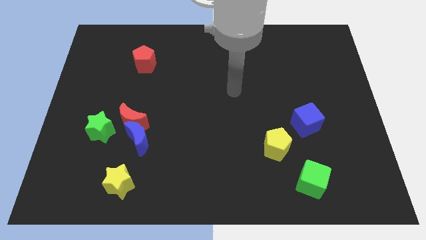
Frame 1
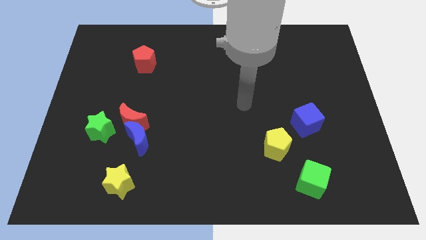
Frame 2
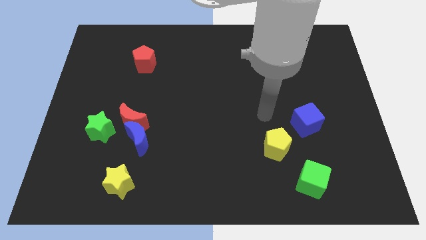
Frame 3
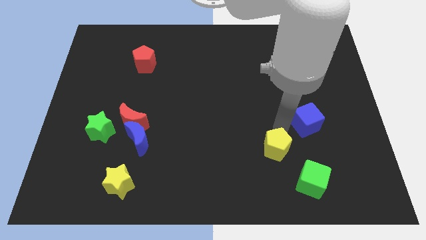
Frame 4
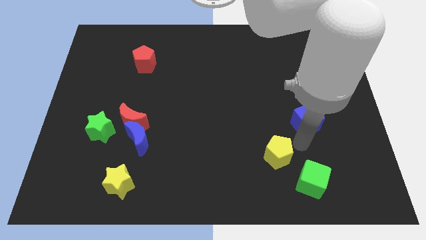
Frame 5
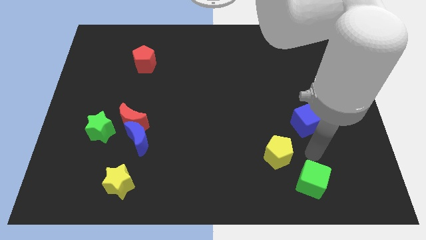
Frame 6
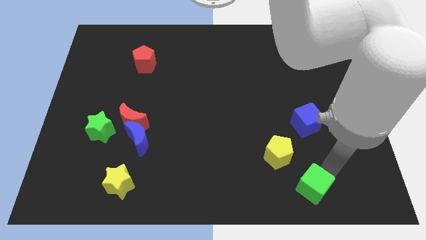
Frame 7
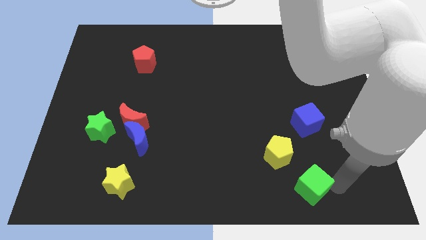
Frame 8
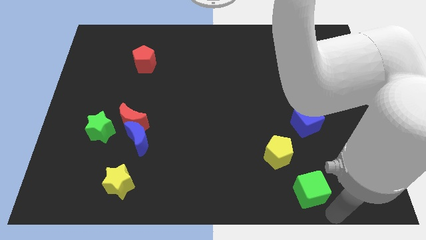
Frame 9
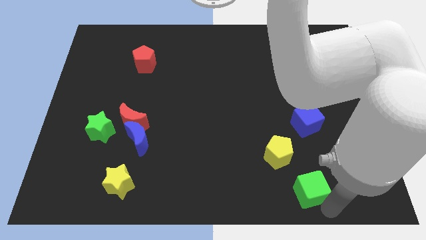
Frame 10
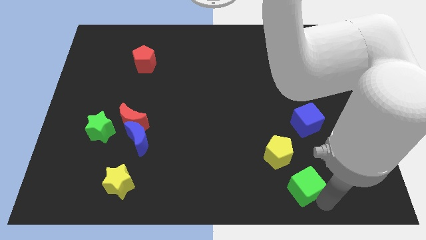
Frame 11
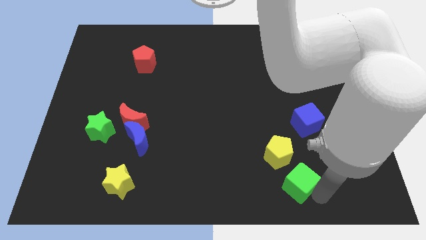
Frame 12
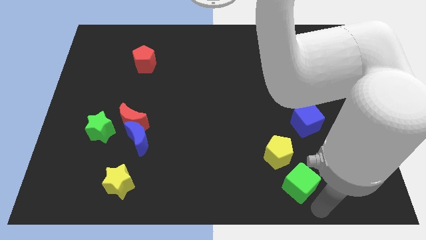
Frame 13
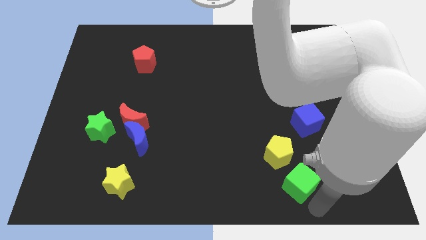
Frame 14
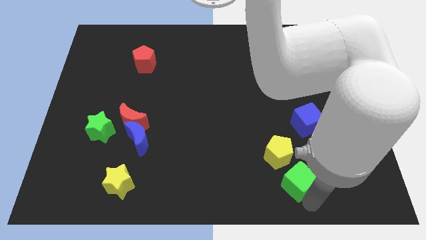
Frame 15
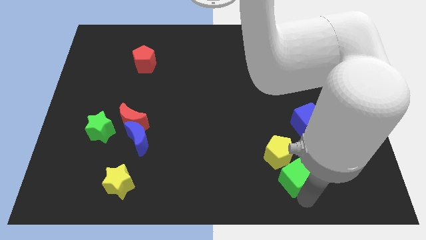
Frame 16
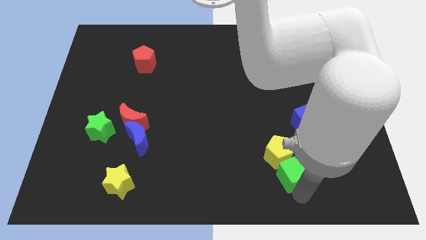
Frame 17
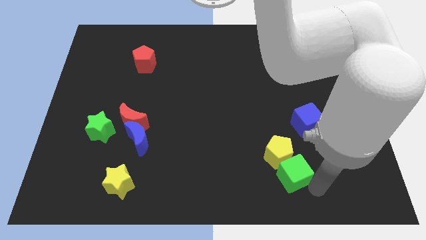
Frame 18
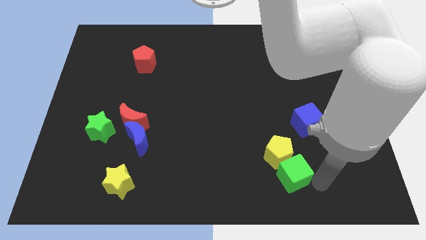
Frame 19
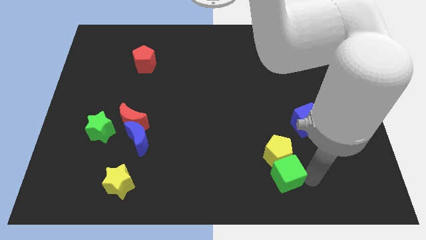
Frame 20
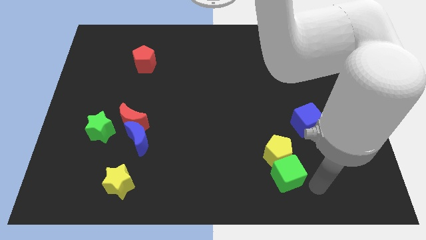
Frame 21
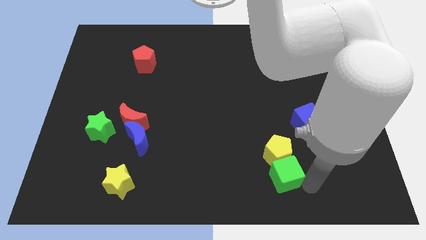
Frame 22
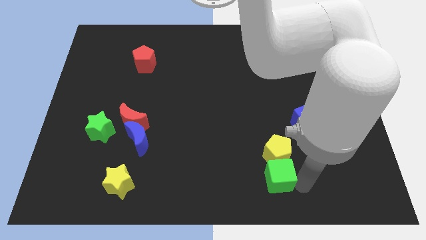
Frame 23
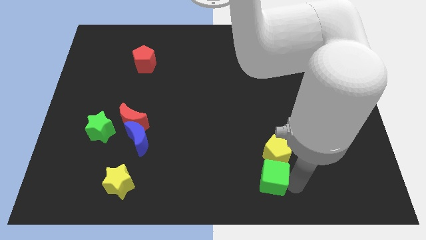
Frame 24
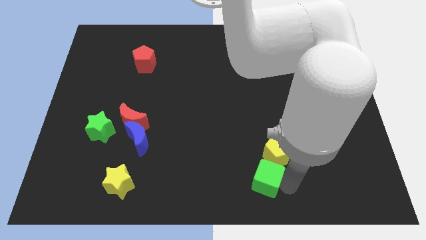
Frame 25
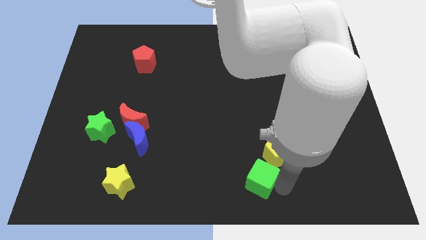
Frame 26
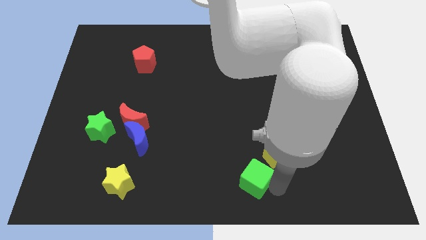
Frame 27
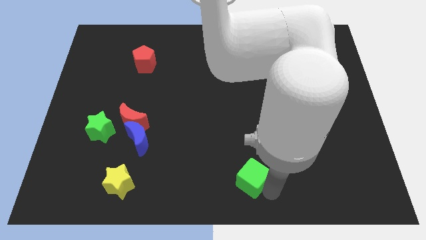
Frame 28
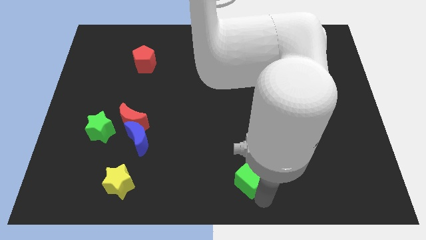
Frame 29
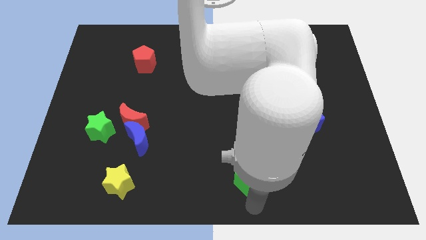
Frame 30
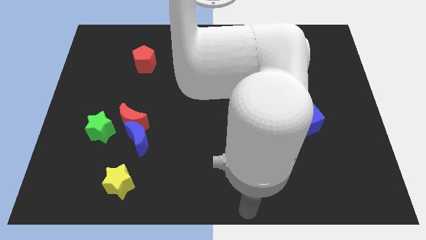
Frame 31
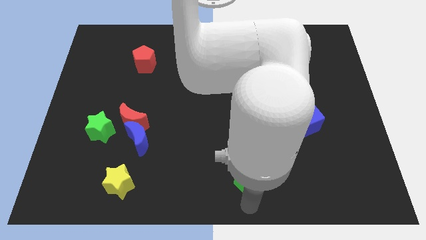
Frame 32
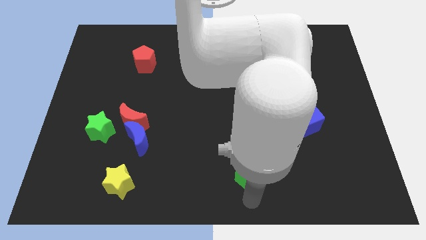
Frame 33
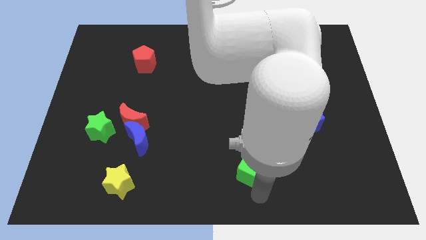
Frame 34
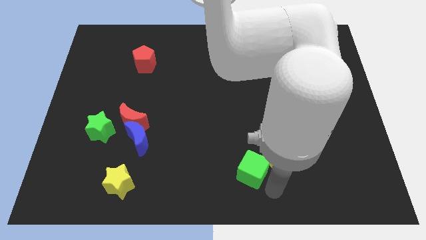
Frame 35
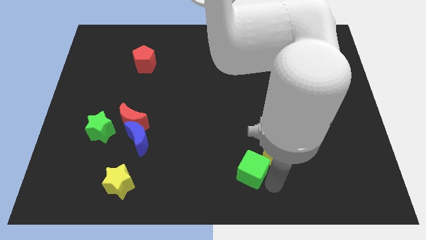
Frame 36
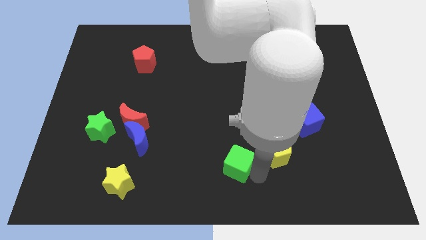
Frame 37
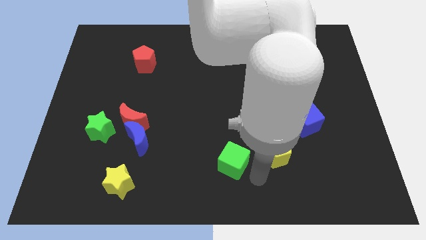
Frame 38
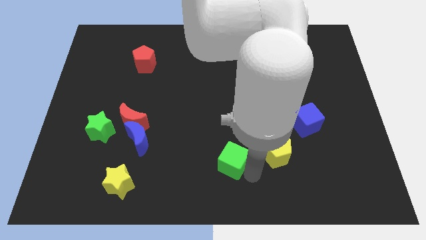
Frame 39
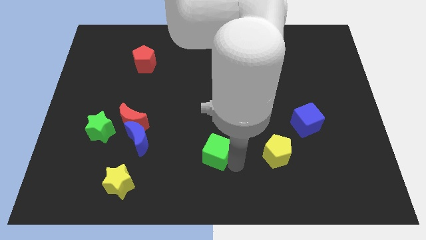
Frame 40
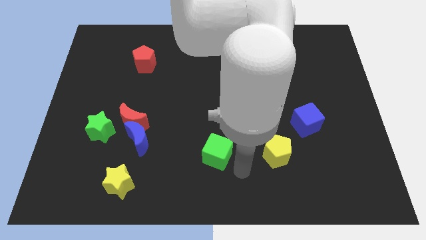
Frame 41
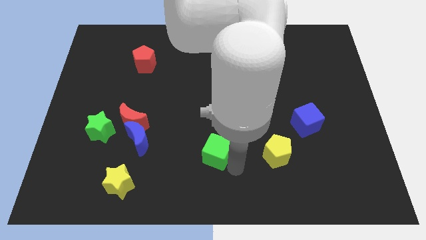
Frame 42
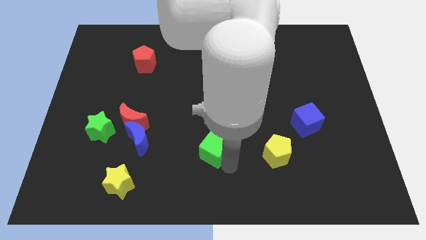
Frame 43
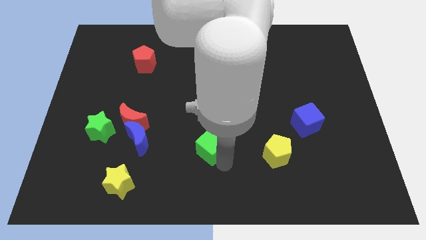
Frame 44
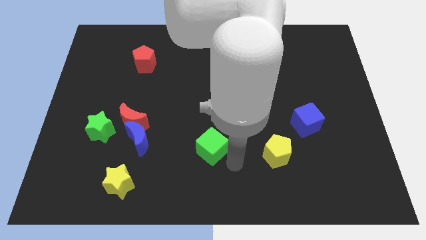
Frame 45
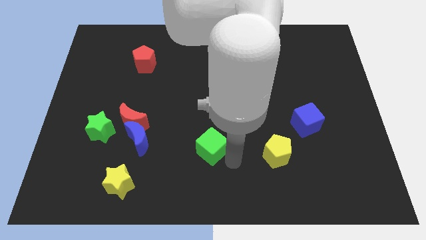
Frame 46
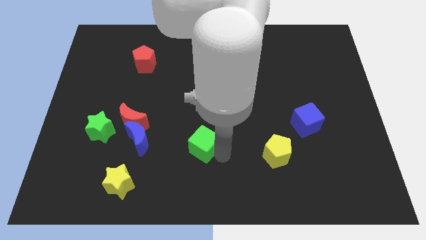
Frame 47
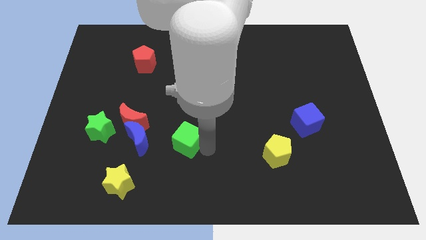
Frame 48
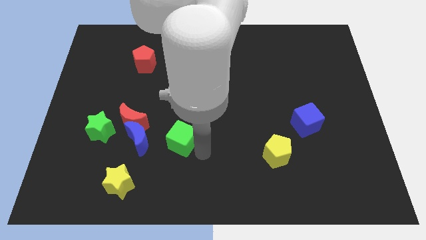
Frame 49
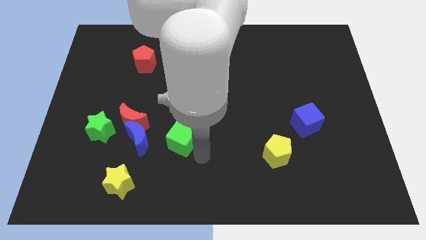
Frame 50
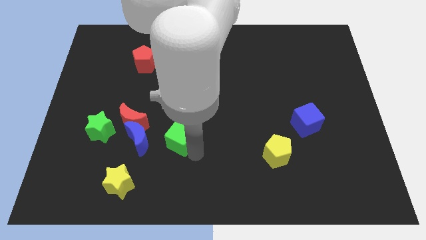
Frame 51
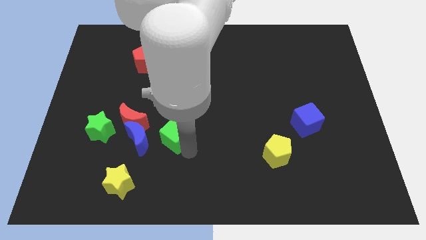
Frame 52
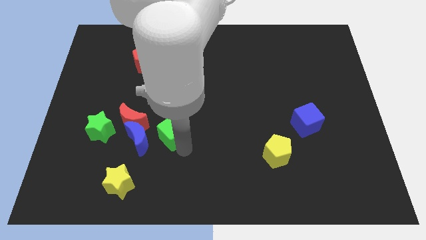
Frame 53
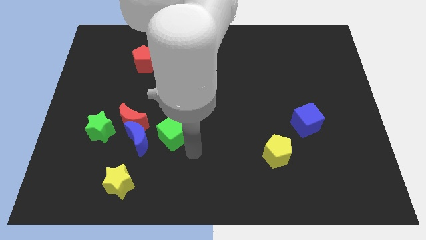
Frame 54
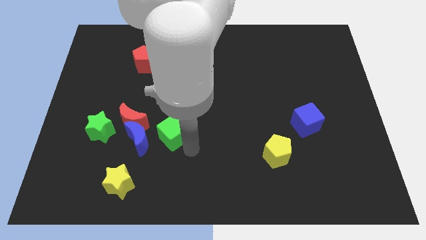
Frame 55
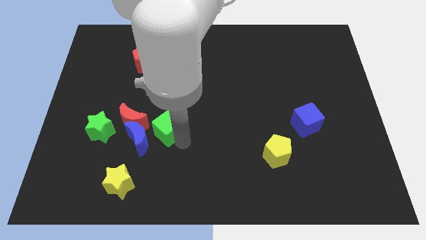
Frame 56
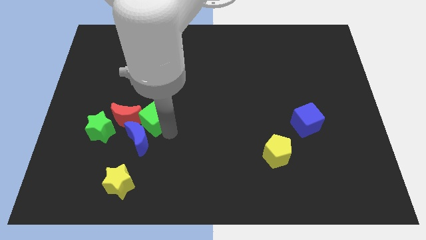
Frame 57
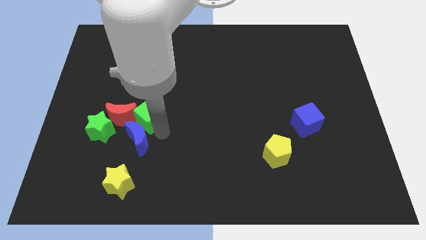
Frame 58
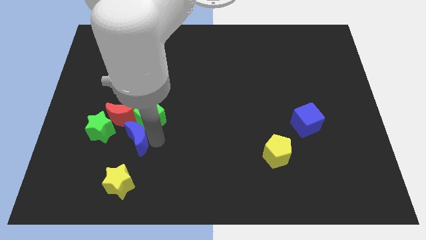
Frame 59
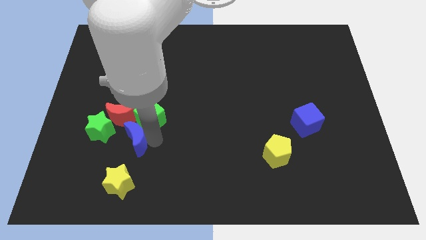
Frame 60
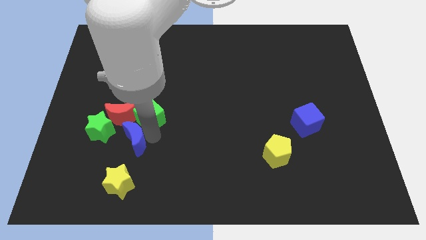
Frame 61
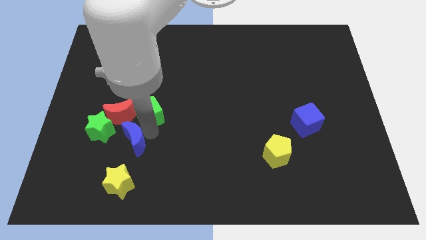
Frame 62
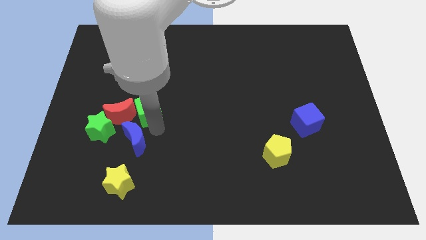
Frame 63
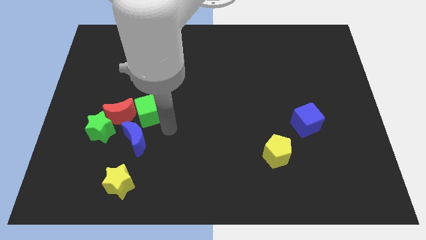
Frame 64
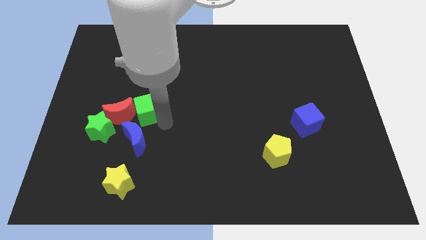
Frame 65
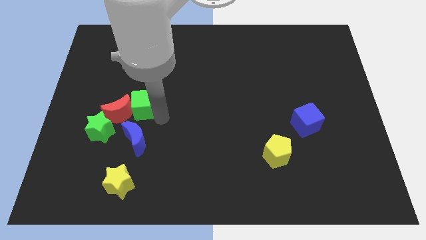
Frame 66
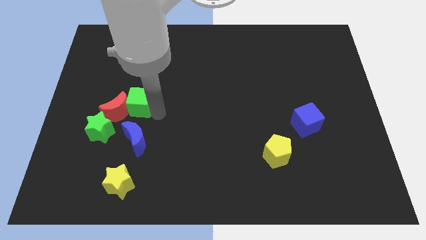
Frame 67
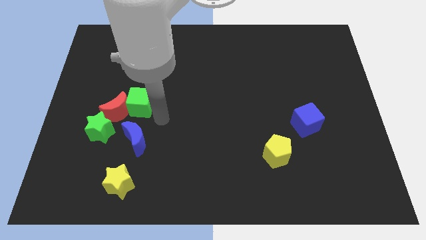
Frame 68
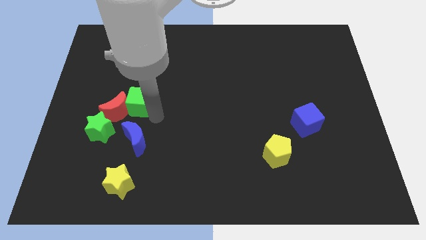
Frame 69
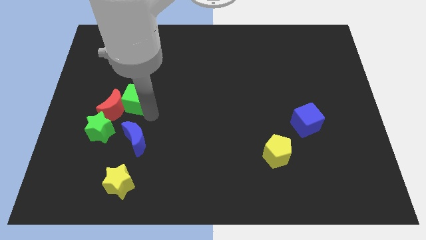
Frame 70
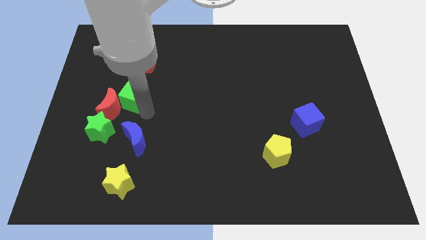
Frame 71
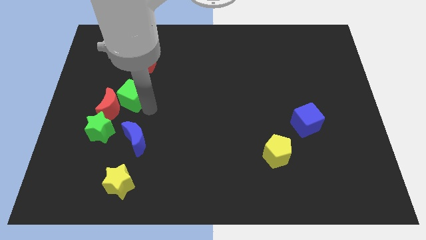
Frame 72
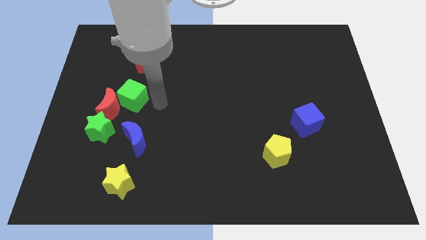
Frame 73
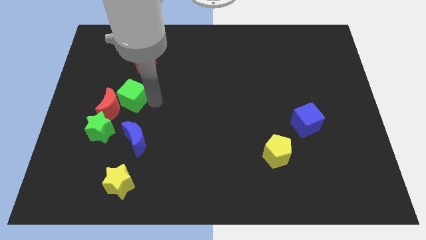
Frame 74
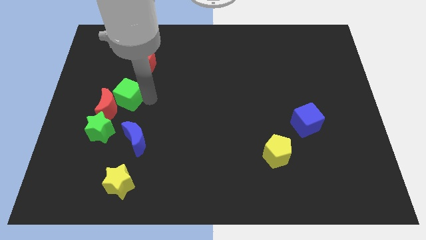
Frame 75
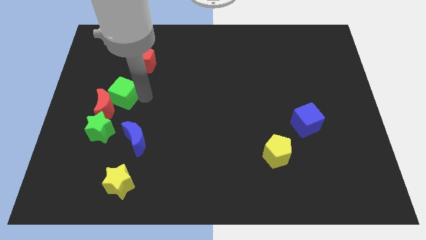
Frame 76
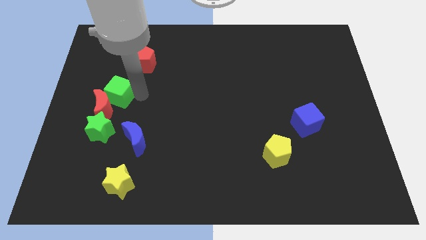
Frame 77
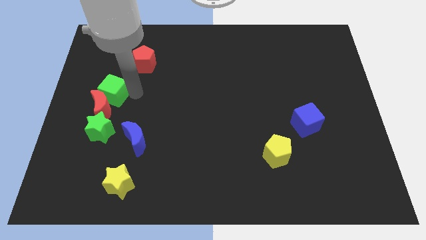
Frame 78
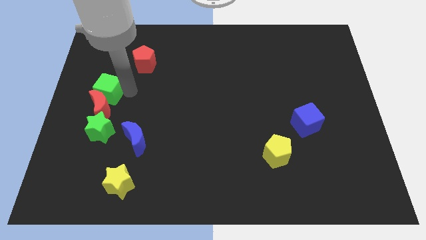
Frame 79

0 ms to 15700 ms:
slide the green cube to the left side

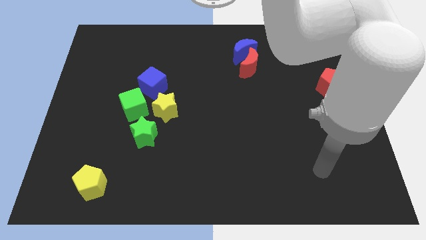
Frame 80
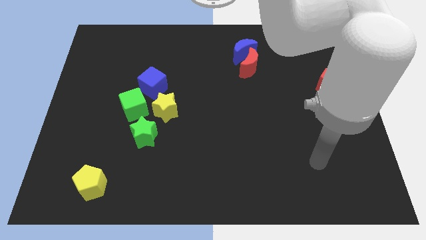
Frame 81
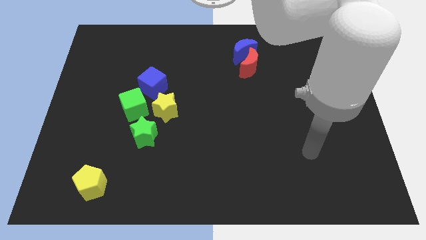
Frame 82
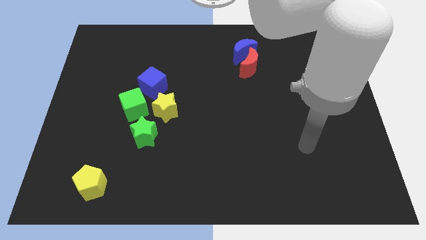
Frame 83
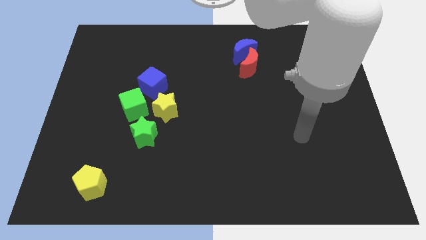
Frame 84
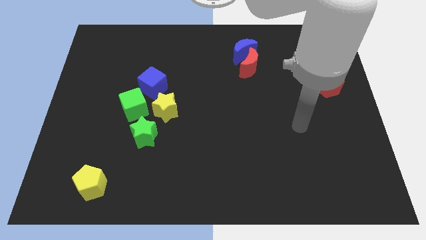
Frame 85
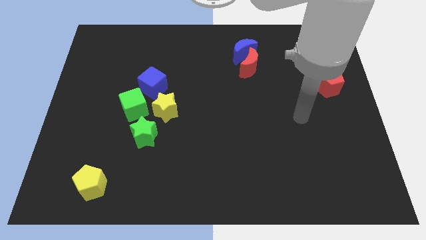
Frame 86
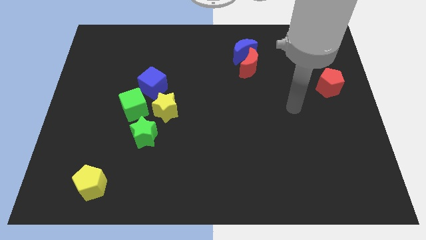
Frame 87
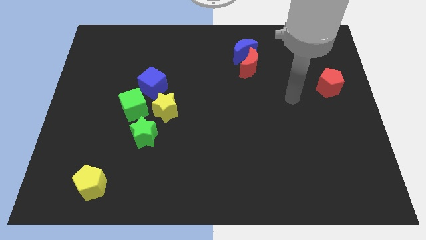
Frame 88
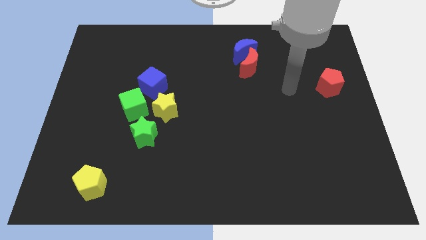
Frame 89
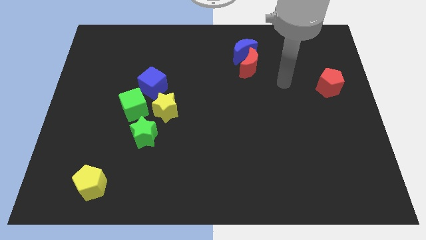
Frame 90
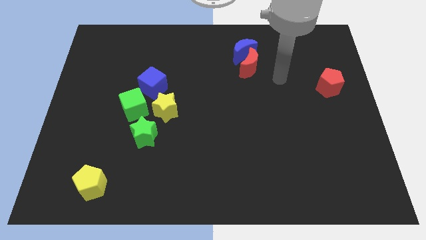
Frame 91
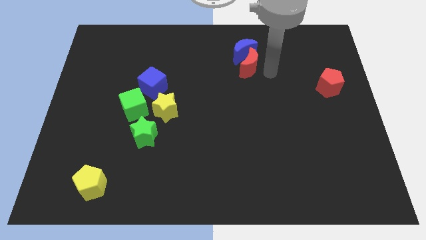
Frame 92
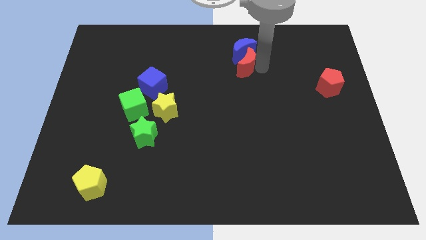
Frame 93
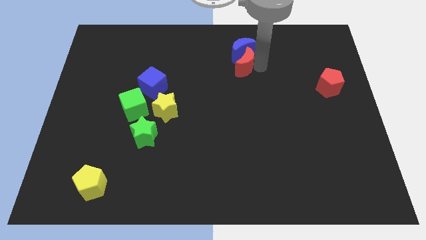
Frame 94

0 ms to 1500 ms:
put the blue moon to the towards your base
